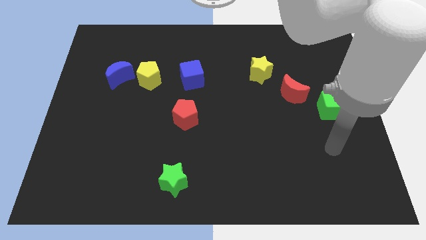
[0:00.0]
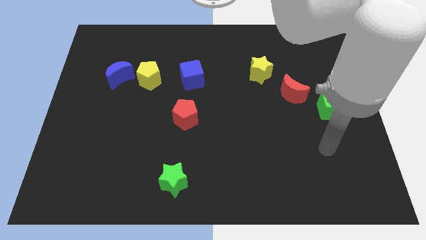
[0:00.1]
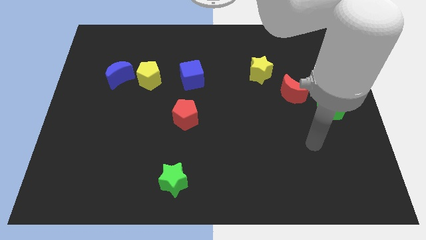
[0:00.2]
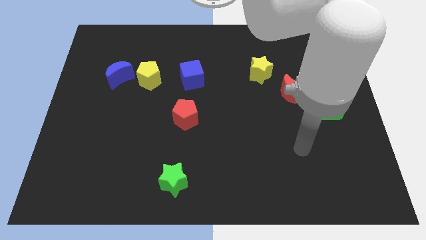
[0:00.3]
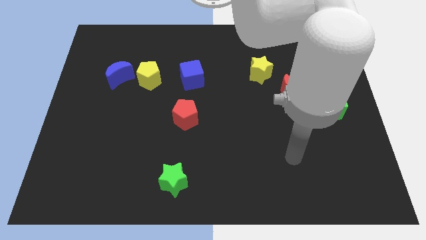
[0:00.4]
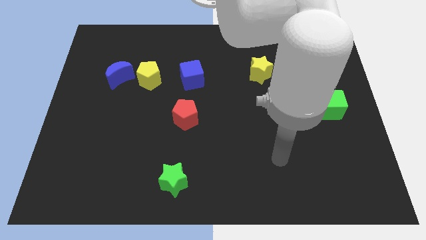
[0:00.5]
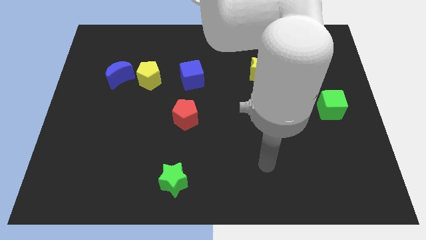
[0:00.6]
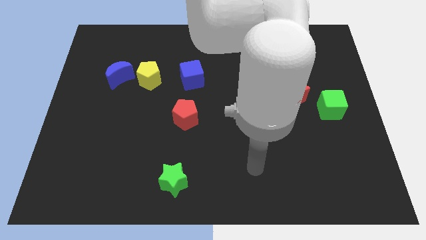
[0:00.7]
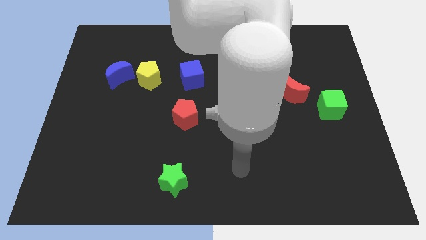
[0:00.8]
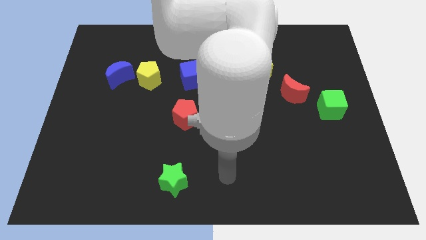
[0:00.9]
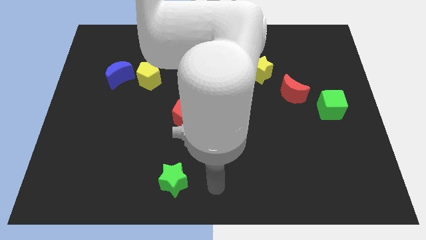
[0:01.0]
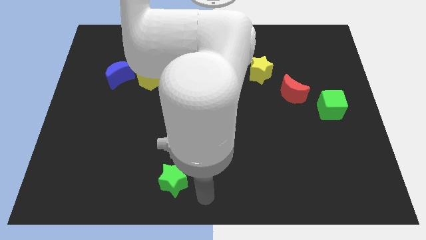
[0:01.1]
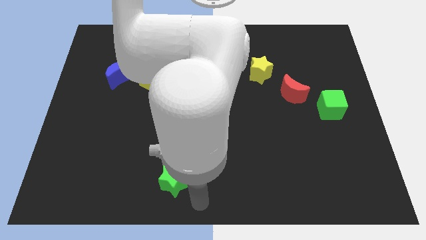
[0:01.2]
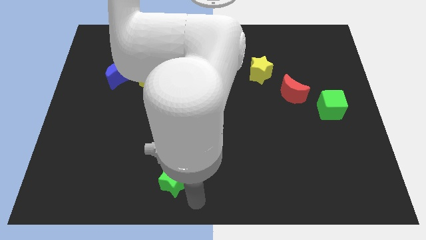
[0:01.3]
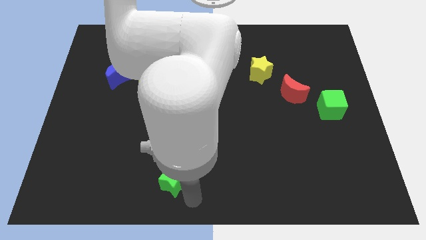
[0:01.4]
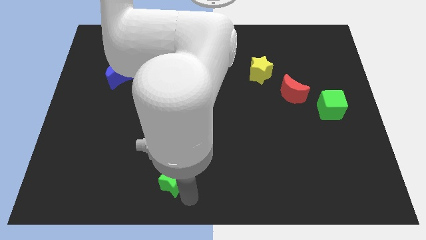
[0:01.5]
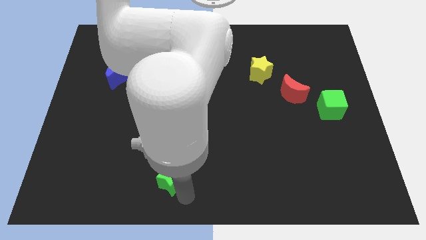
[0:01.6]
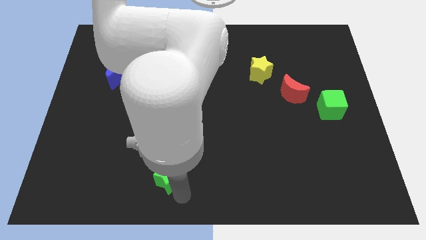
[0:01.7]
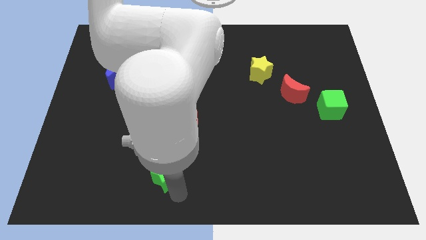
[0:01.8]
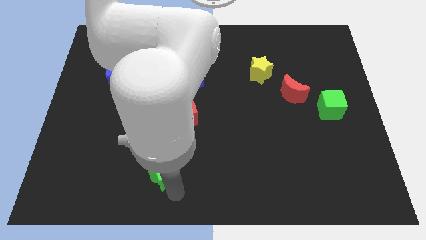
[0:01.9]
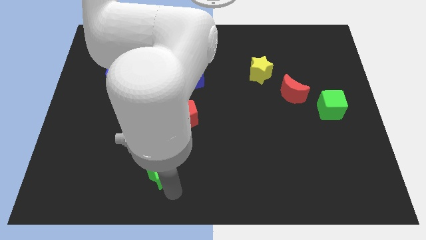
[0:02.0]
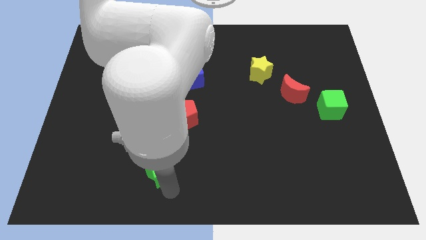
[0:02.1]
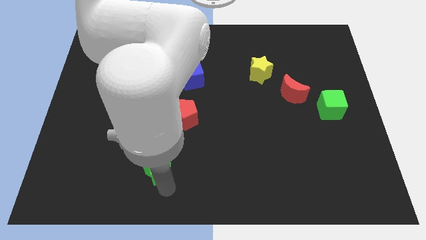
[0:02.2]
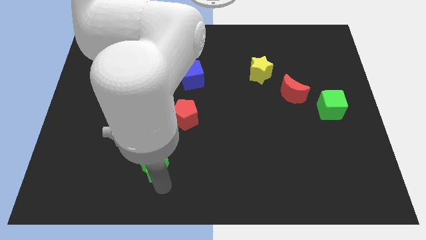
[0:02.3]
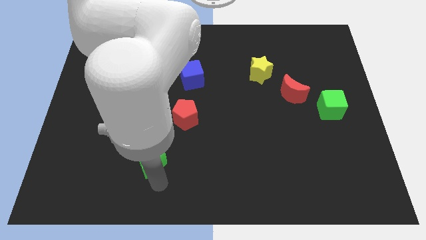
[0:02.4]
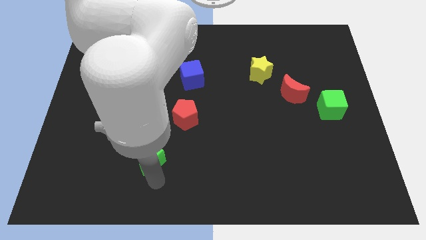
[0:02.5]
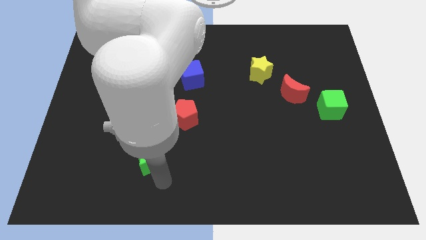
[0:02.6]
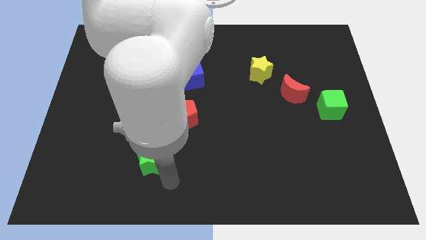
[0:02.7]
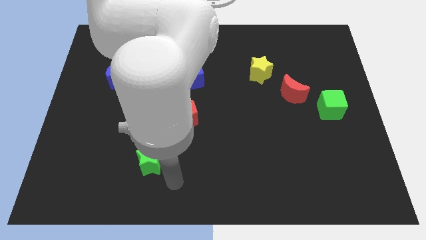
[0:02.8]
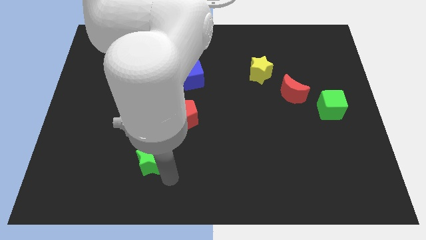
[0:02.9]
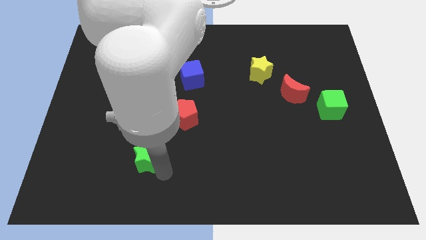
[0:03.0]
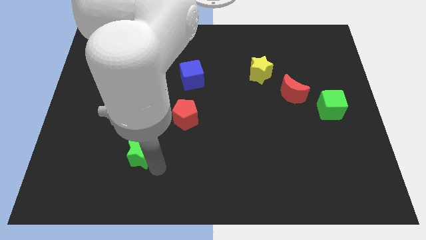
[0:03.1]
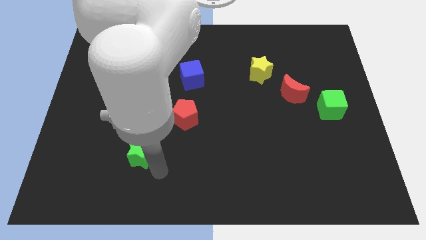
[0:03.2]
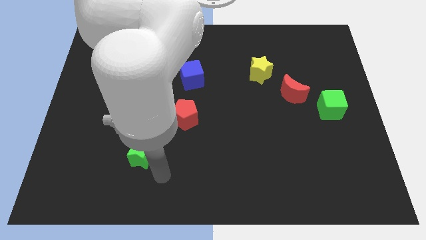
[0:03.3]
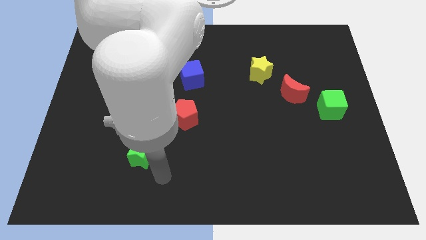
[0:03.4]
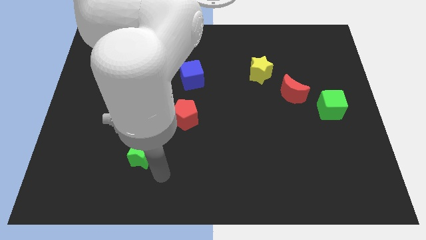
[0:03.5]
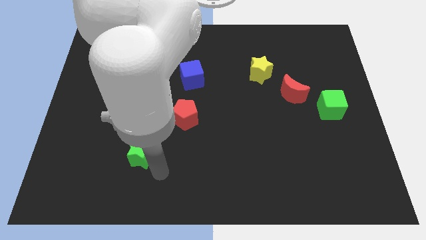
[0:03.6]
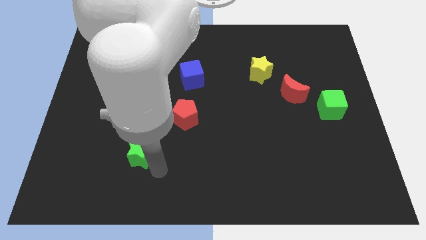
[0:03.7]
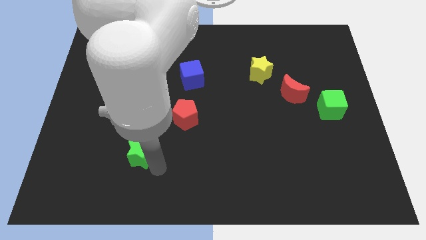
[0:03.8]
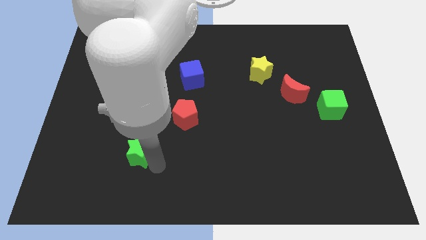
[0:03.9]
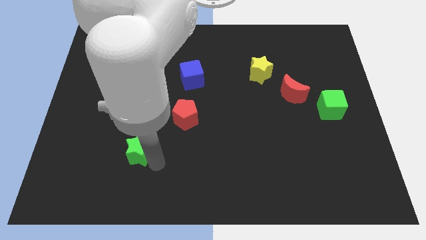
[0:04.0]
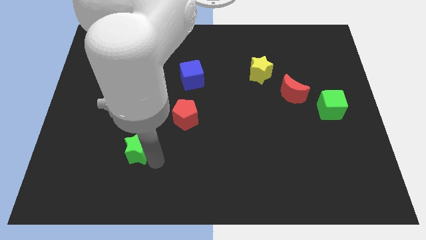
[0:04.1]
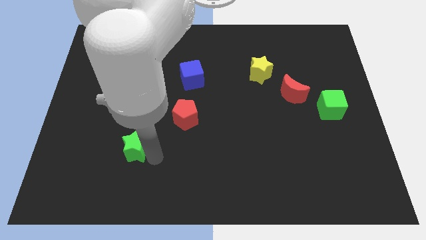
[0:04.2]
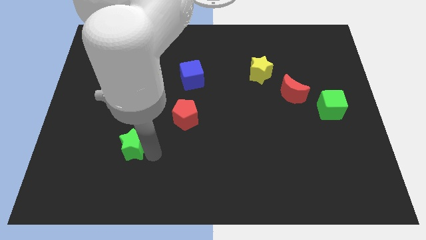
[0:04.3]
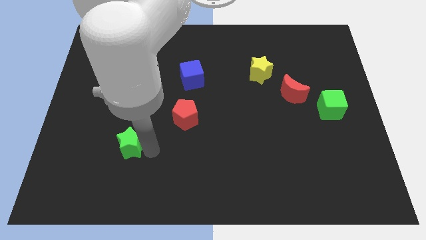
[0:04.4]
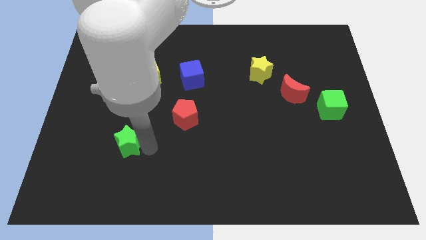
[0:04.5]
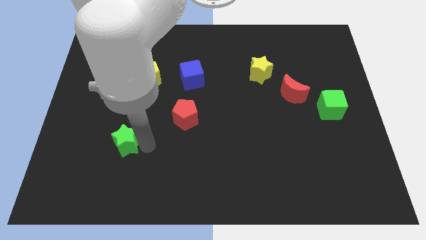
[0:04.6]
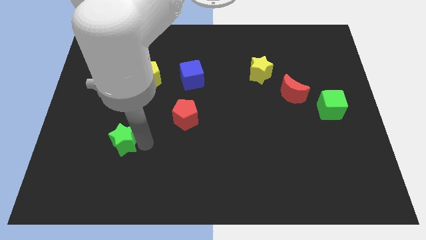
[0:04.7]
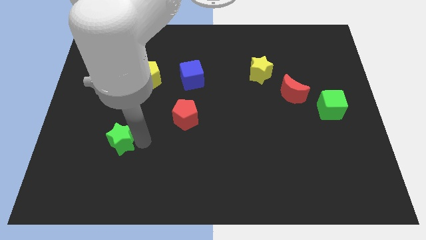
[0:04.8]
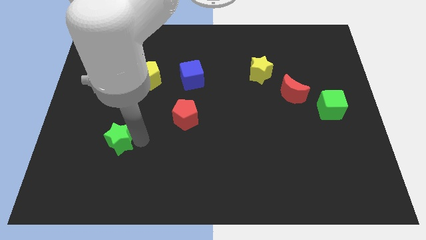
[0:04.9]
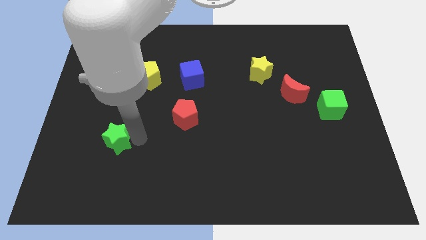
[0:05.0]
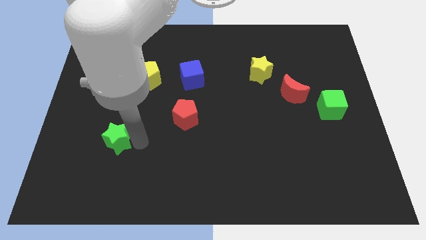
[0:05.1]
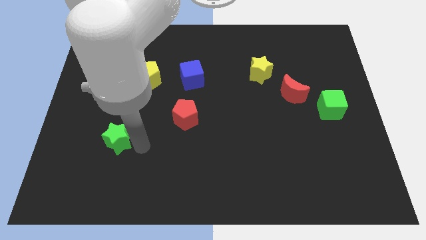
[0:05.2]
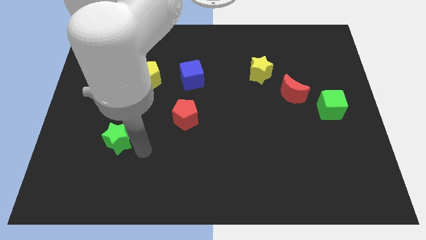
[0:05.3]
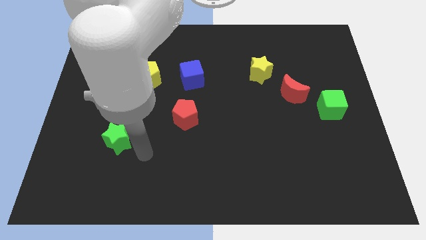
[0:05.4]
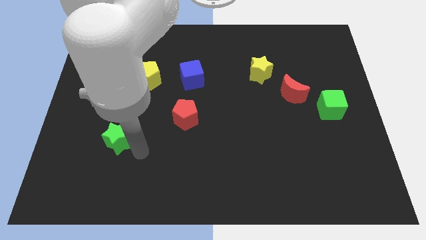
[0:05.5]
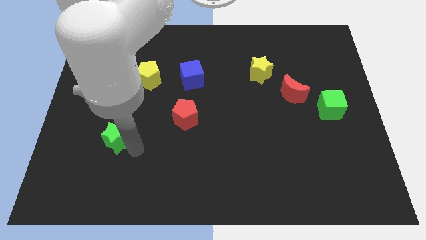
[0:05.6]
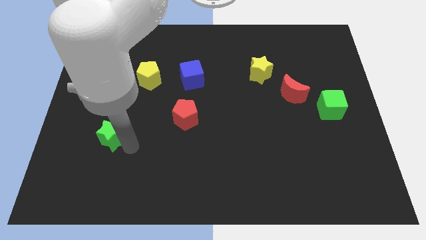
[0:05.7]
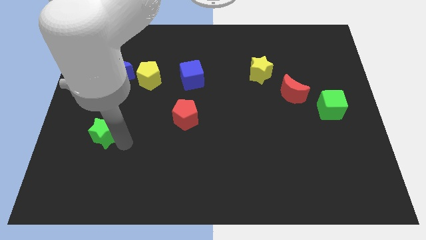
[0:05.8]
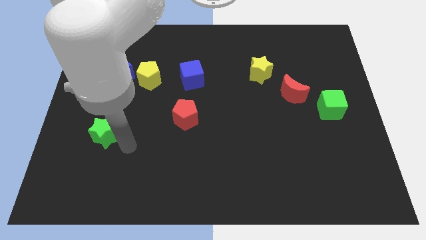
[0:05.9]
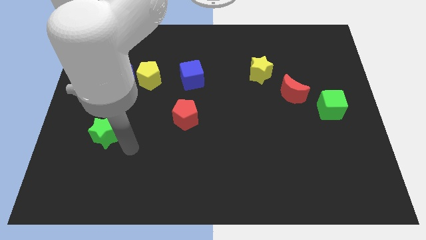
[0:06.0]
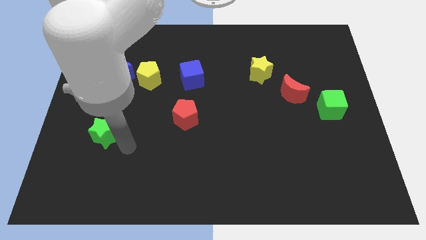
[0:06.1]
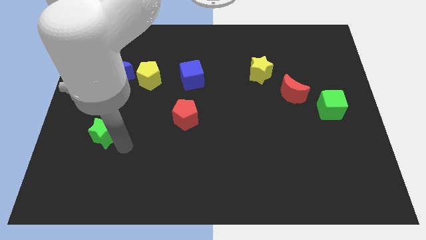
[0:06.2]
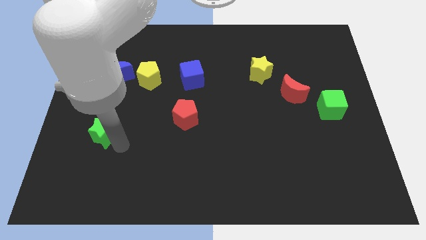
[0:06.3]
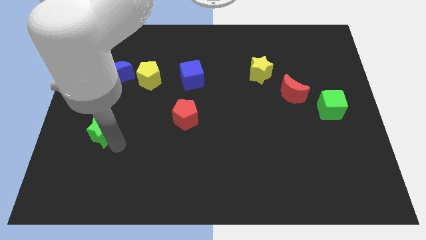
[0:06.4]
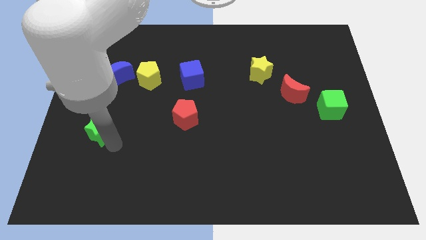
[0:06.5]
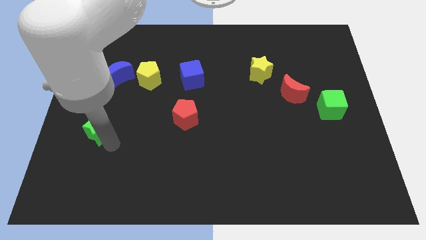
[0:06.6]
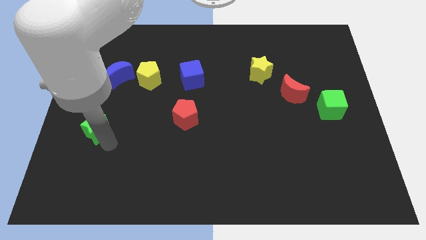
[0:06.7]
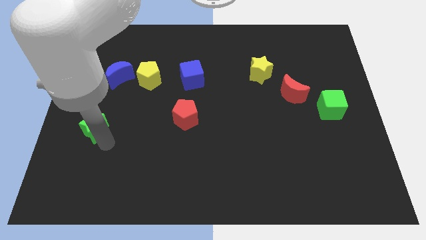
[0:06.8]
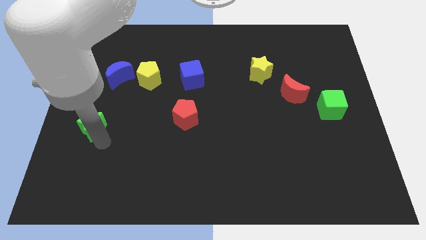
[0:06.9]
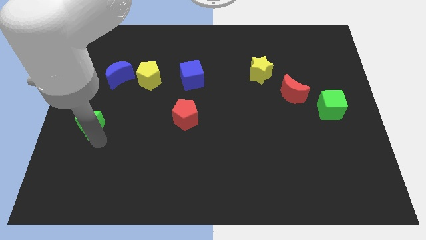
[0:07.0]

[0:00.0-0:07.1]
push the green star to the center left
